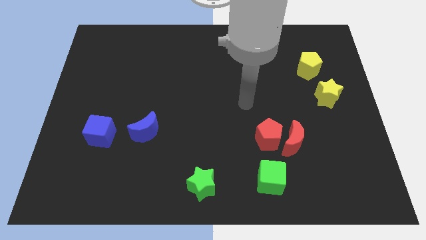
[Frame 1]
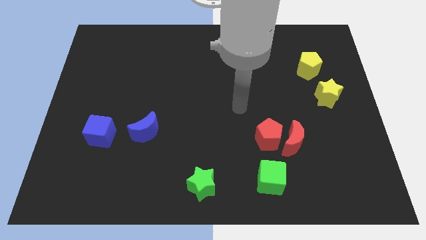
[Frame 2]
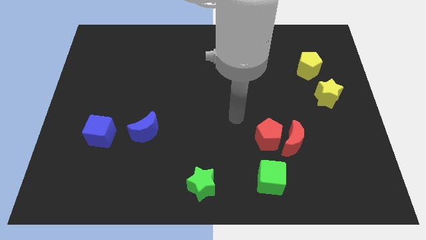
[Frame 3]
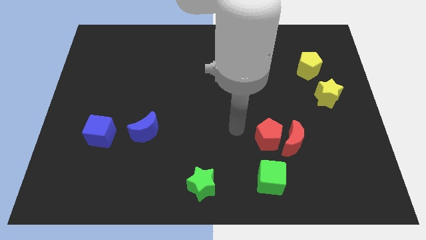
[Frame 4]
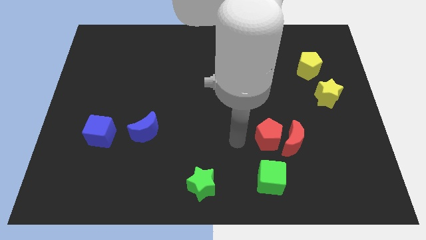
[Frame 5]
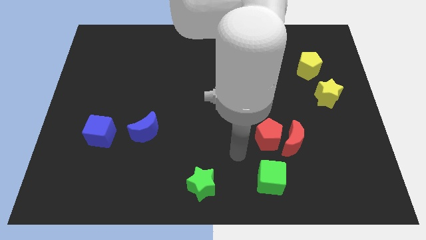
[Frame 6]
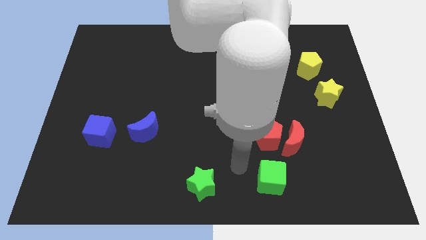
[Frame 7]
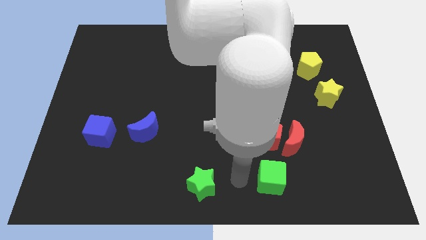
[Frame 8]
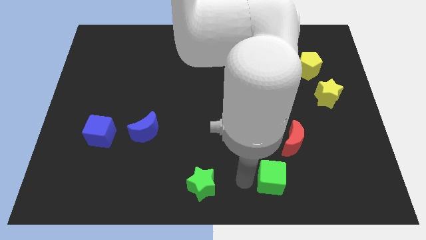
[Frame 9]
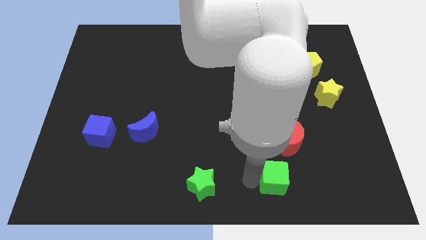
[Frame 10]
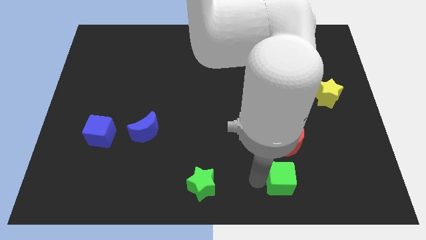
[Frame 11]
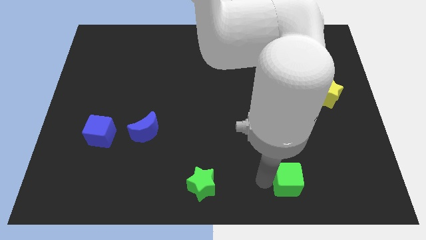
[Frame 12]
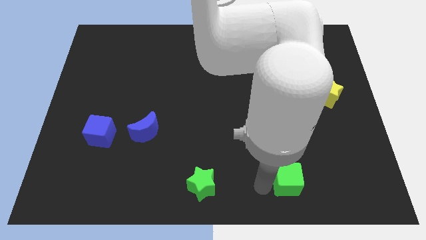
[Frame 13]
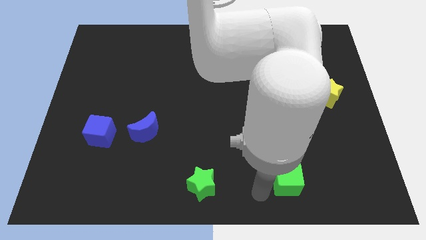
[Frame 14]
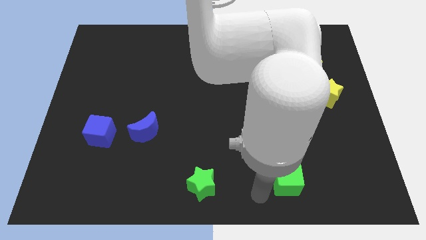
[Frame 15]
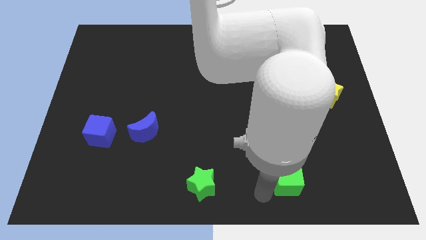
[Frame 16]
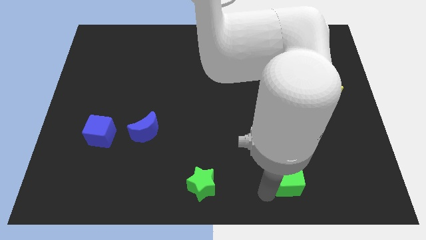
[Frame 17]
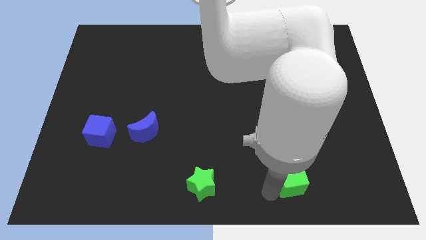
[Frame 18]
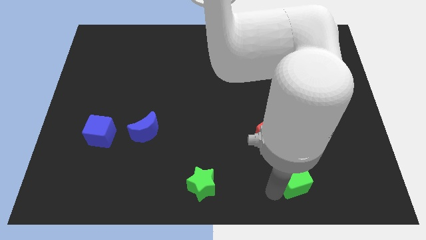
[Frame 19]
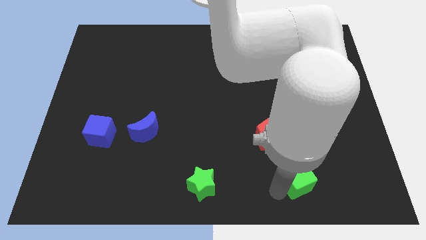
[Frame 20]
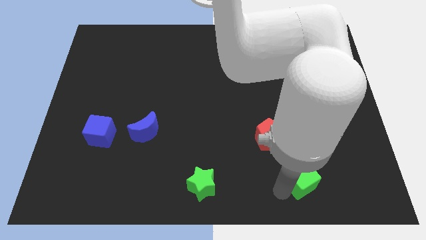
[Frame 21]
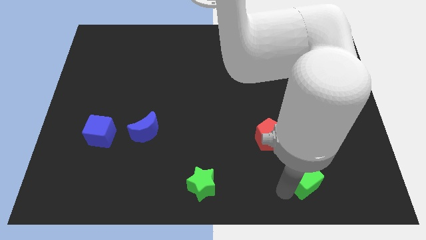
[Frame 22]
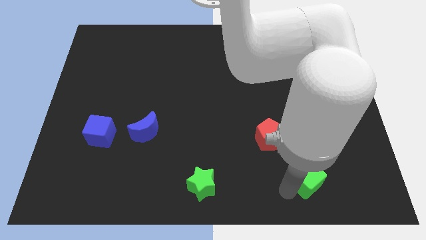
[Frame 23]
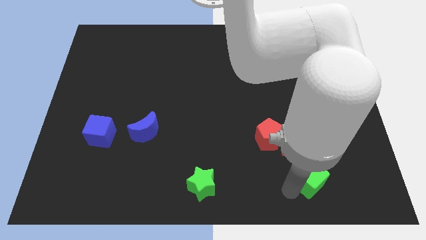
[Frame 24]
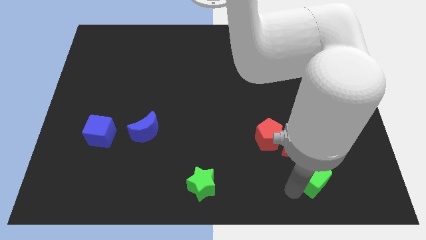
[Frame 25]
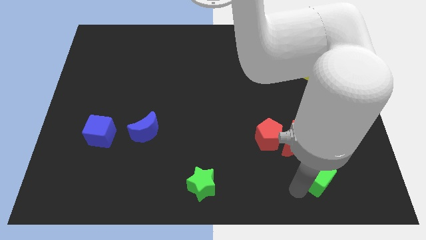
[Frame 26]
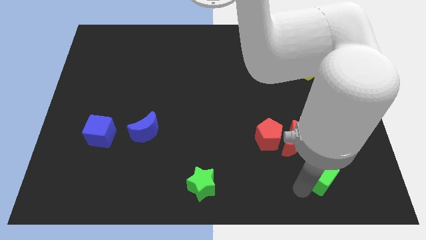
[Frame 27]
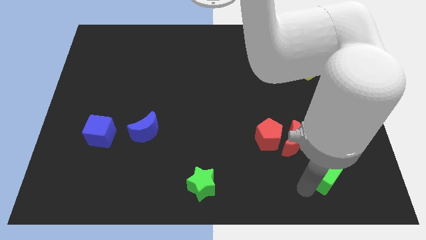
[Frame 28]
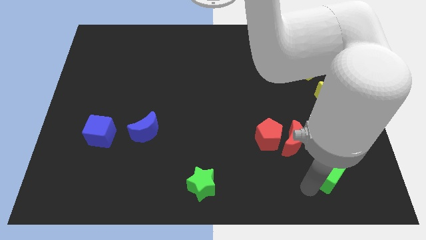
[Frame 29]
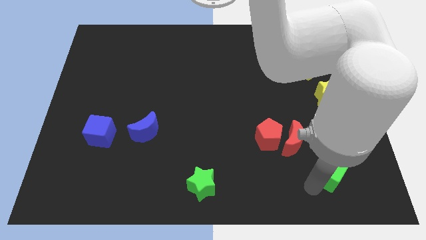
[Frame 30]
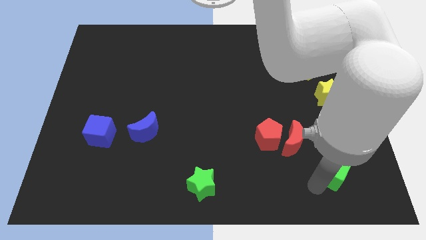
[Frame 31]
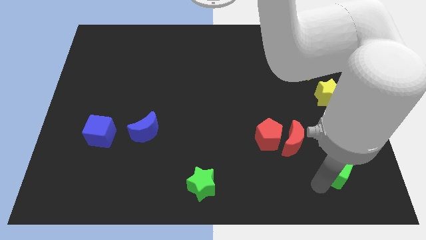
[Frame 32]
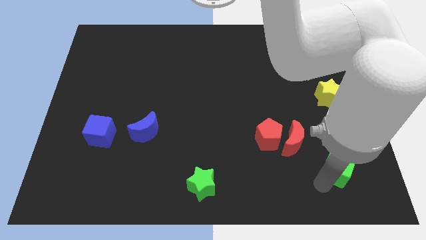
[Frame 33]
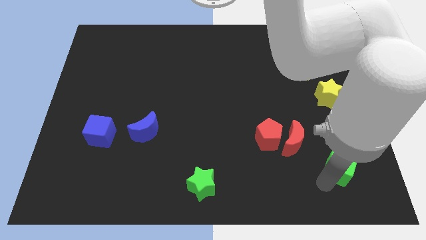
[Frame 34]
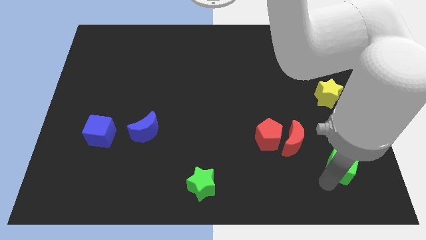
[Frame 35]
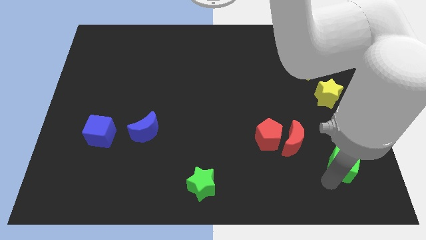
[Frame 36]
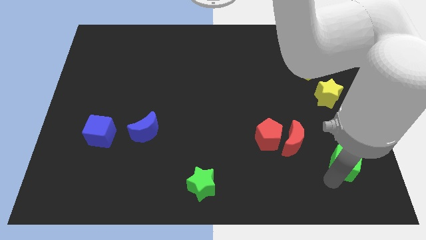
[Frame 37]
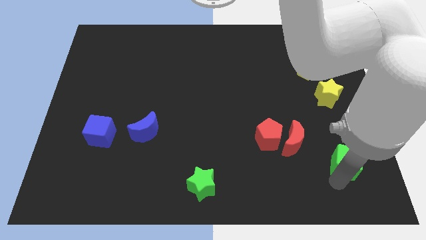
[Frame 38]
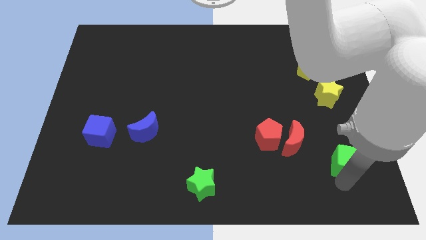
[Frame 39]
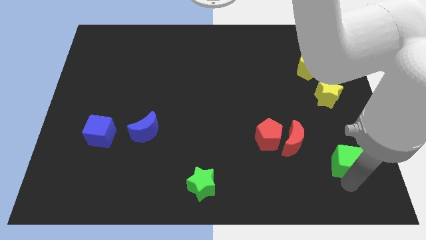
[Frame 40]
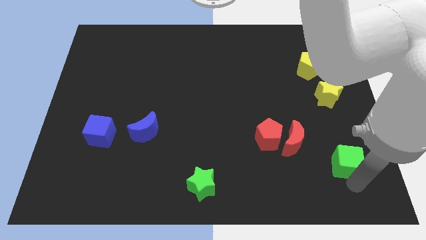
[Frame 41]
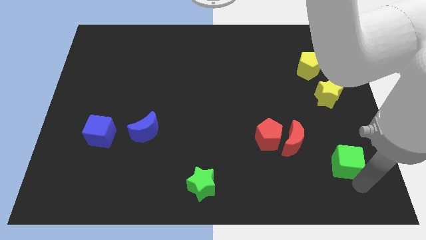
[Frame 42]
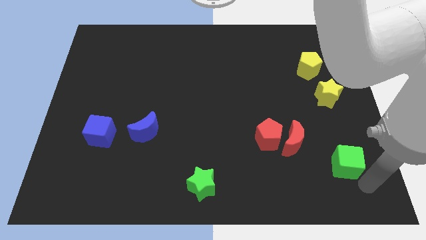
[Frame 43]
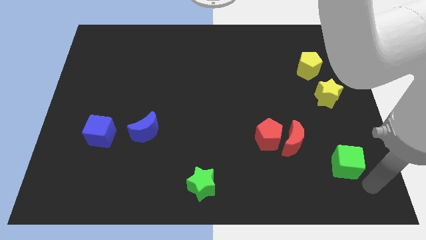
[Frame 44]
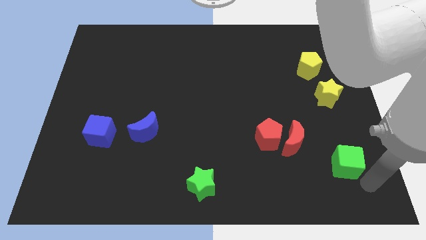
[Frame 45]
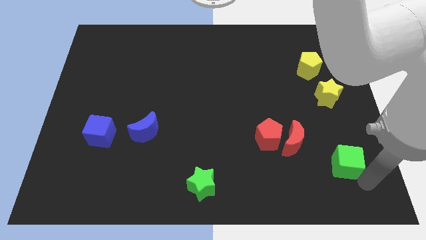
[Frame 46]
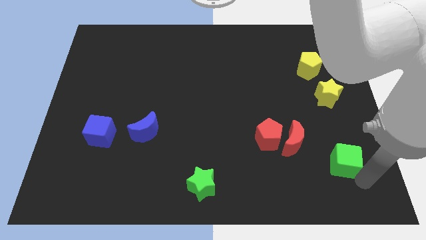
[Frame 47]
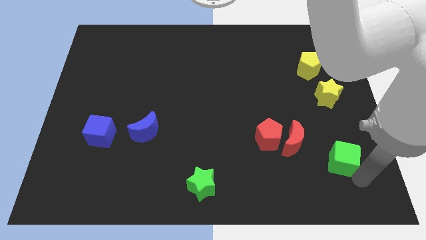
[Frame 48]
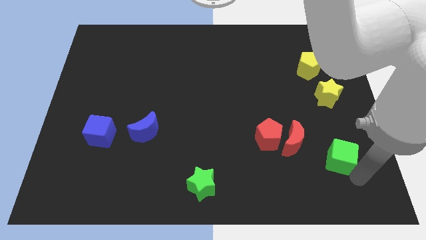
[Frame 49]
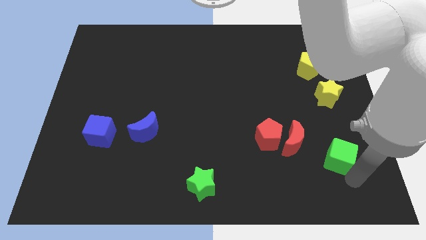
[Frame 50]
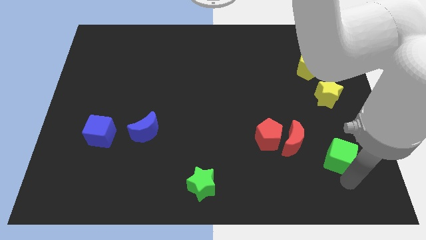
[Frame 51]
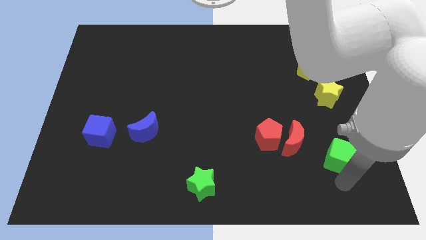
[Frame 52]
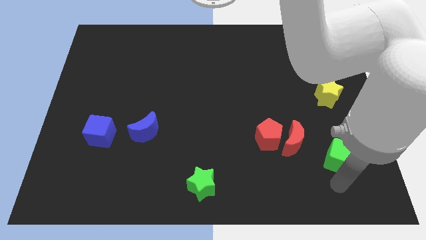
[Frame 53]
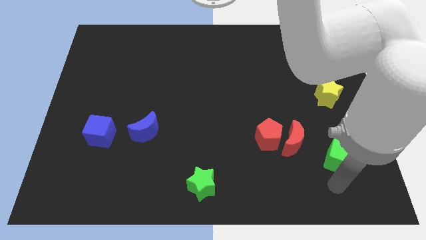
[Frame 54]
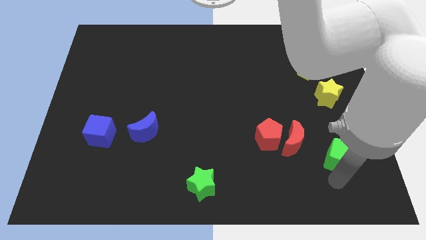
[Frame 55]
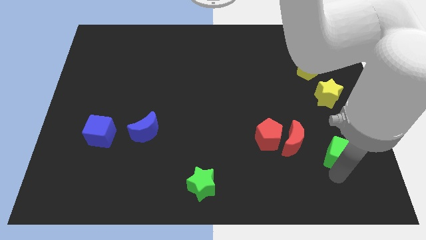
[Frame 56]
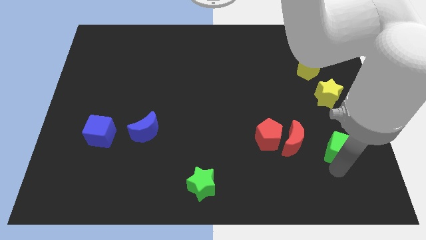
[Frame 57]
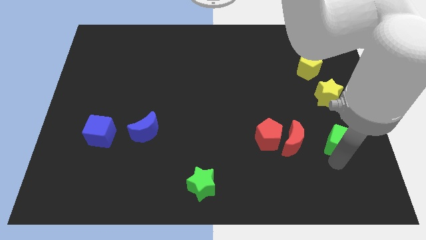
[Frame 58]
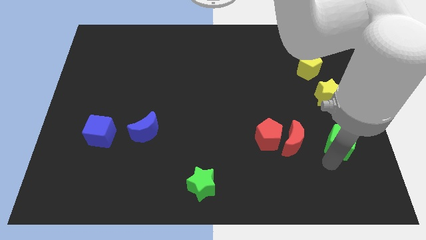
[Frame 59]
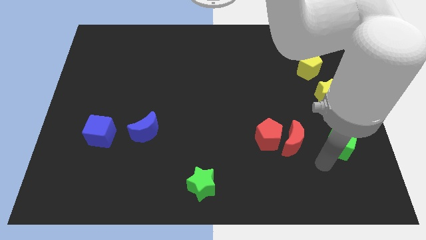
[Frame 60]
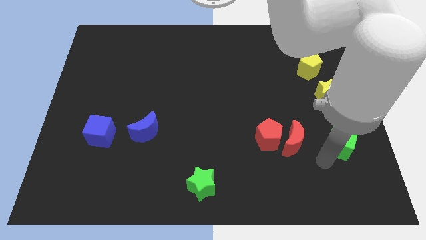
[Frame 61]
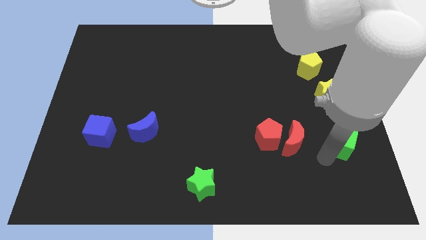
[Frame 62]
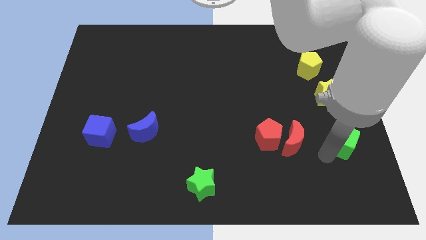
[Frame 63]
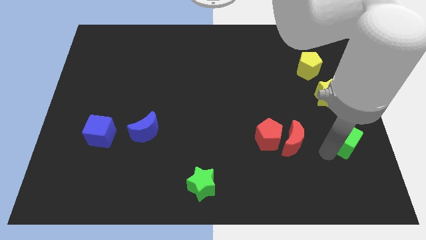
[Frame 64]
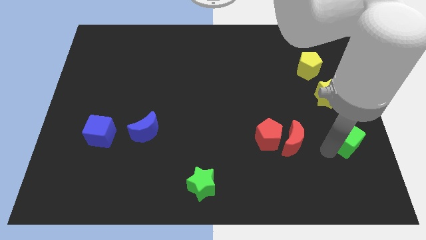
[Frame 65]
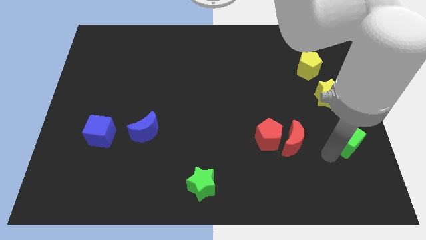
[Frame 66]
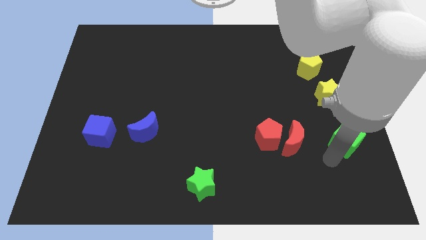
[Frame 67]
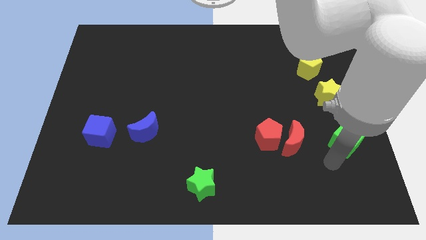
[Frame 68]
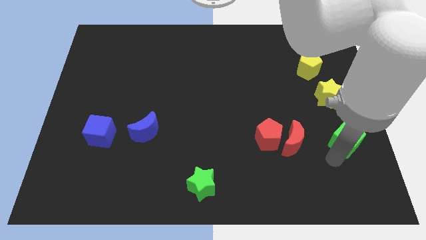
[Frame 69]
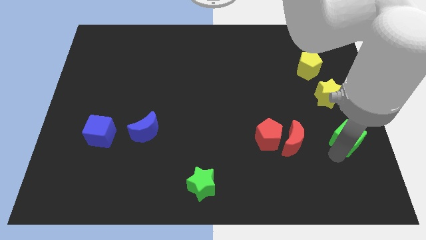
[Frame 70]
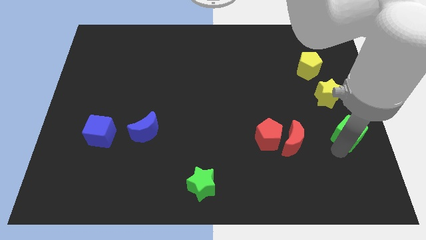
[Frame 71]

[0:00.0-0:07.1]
move the green cube to the right side

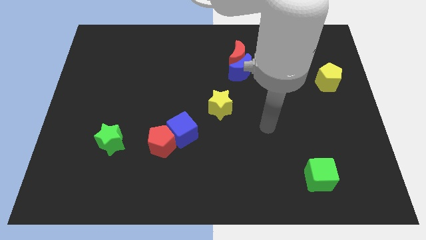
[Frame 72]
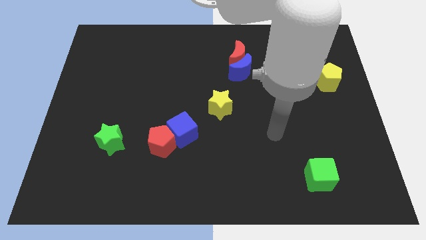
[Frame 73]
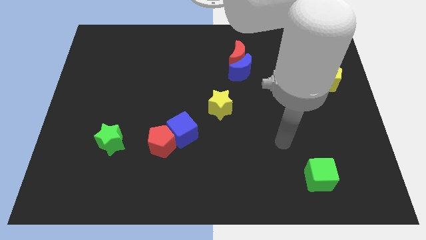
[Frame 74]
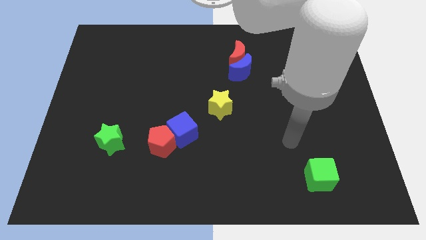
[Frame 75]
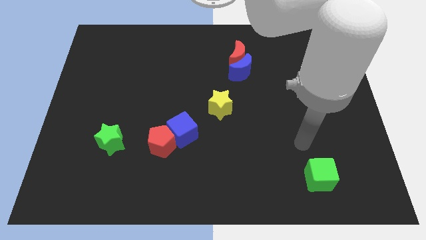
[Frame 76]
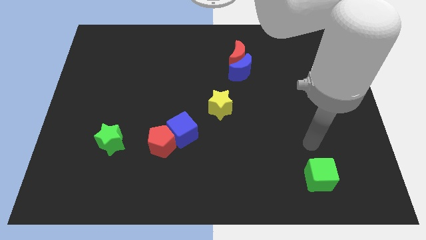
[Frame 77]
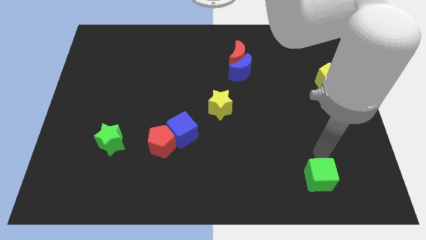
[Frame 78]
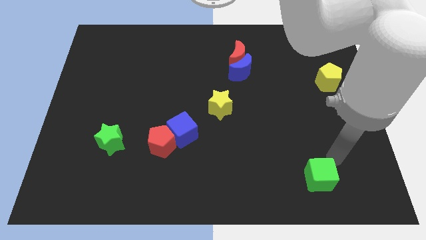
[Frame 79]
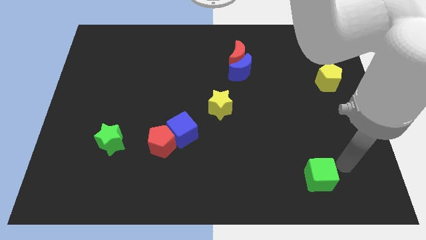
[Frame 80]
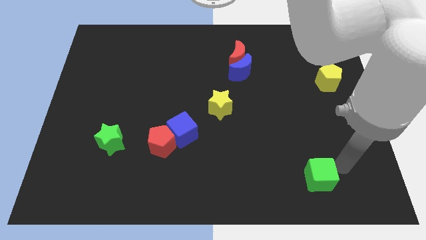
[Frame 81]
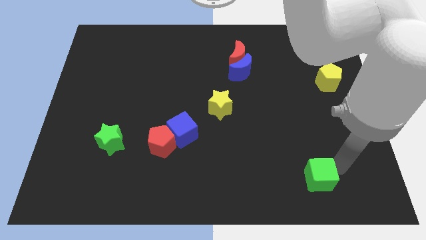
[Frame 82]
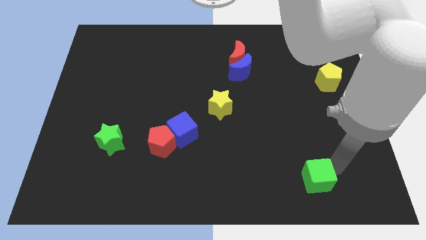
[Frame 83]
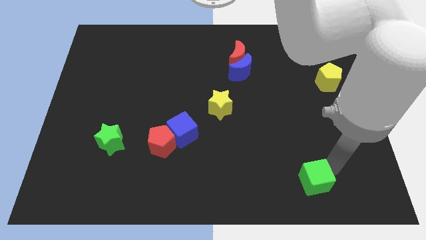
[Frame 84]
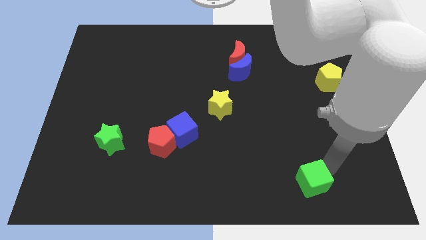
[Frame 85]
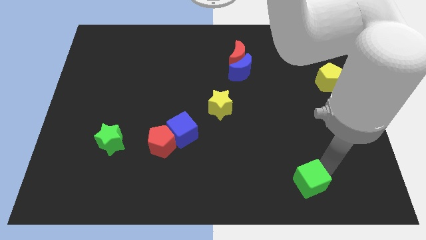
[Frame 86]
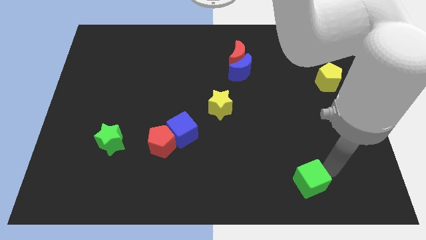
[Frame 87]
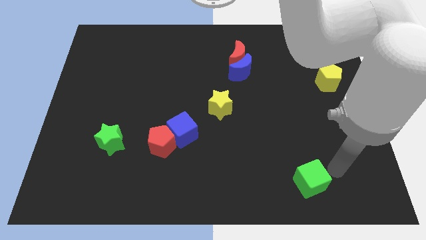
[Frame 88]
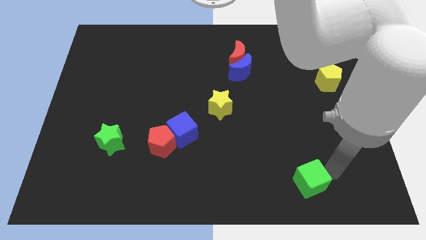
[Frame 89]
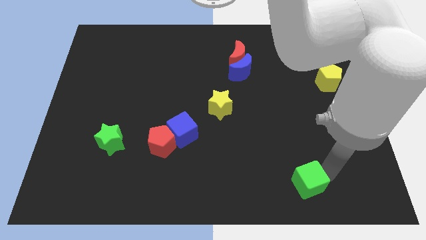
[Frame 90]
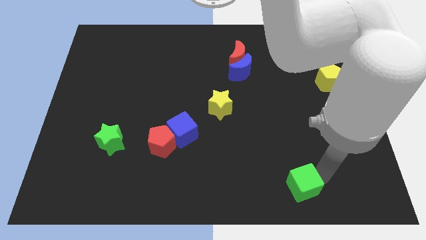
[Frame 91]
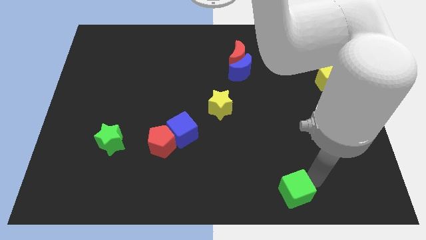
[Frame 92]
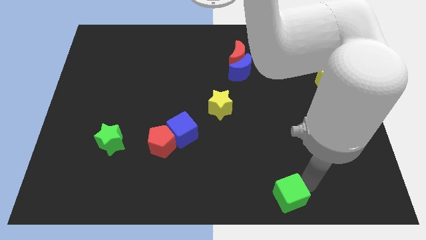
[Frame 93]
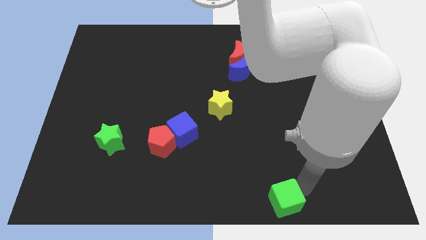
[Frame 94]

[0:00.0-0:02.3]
put the green cube to the bottom side
